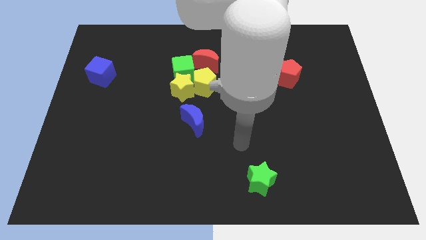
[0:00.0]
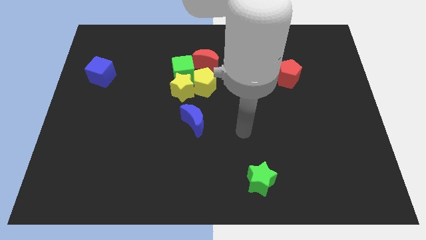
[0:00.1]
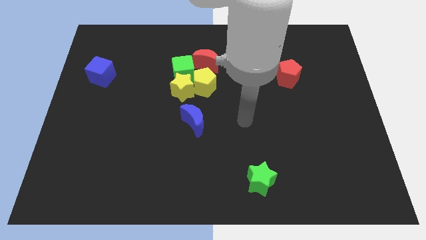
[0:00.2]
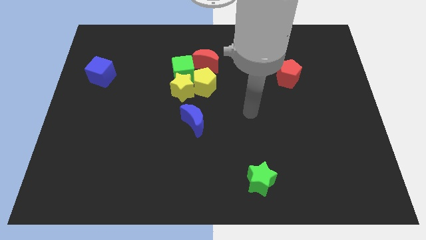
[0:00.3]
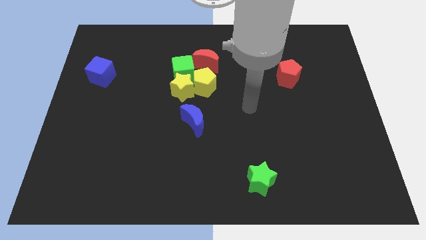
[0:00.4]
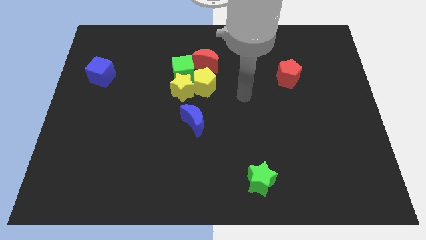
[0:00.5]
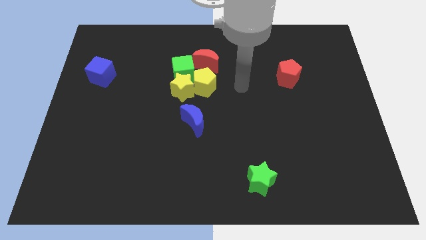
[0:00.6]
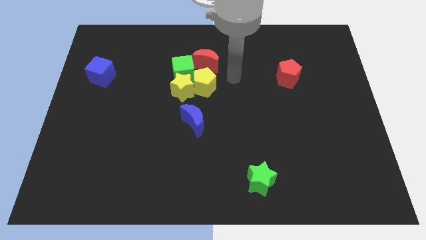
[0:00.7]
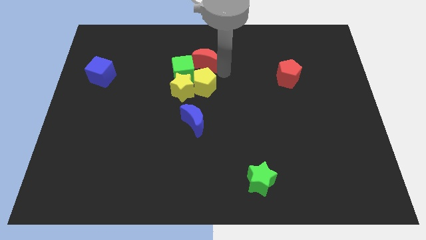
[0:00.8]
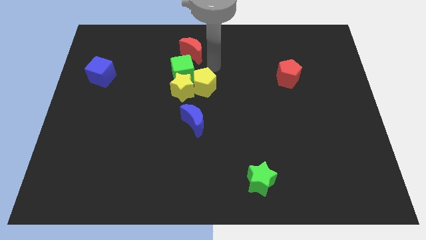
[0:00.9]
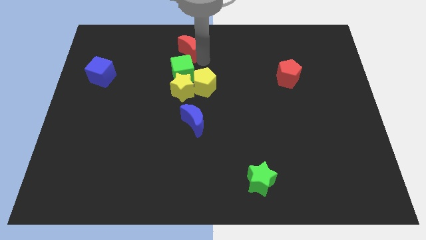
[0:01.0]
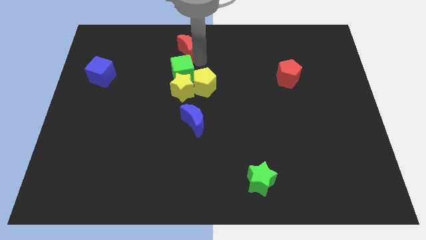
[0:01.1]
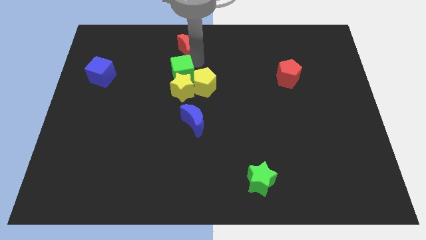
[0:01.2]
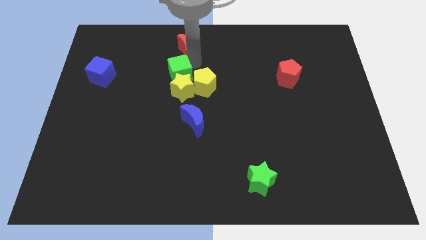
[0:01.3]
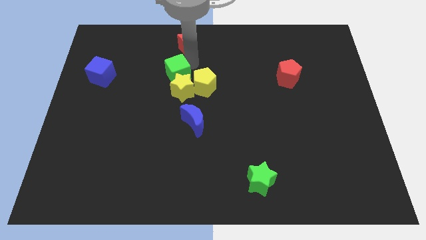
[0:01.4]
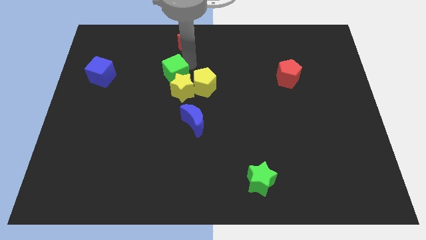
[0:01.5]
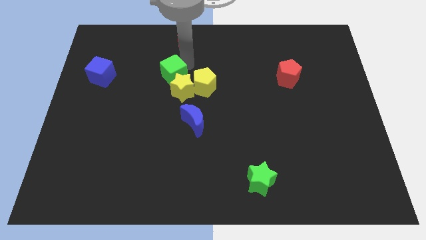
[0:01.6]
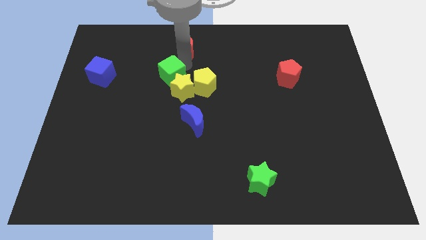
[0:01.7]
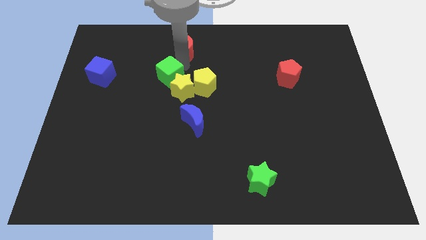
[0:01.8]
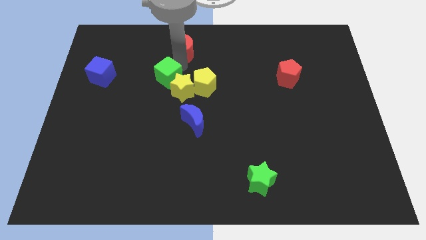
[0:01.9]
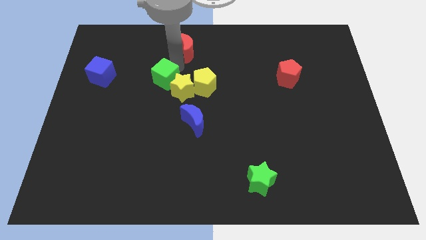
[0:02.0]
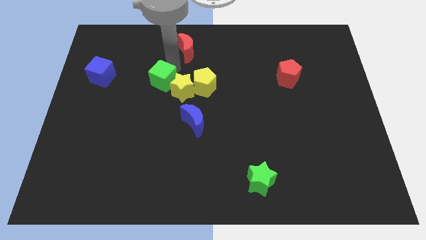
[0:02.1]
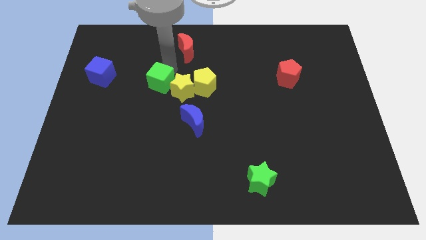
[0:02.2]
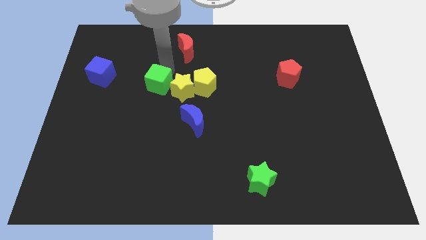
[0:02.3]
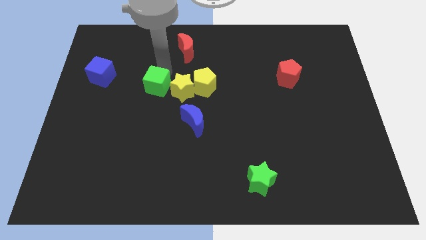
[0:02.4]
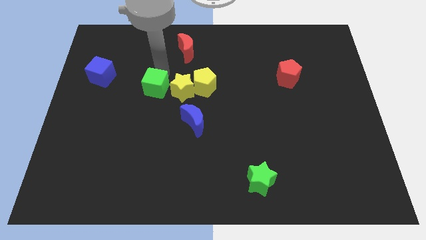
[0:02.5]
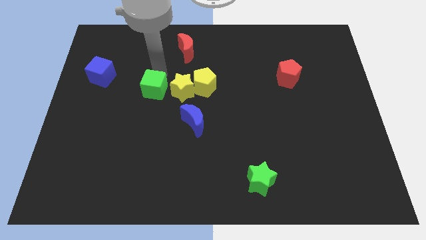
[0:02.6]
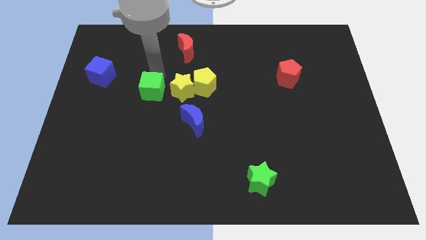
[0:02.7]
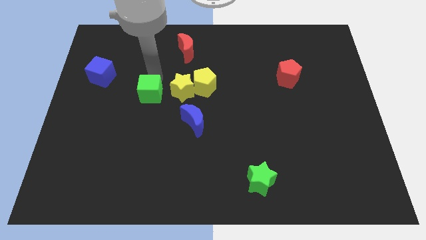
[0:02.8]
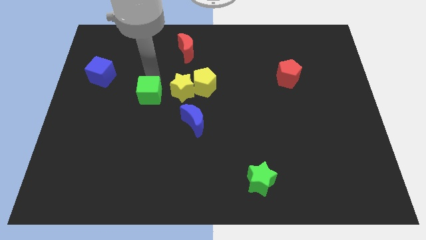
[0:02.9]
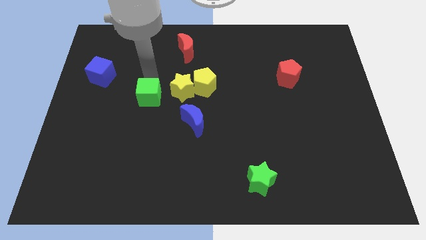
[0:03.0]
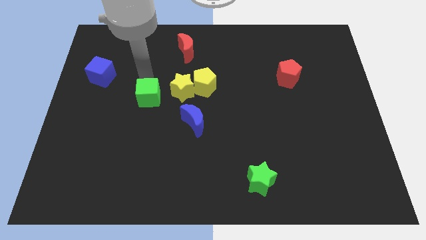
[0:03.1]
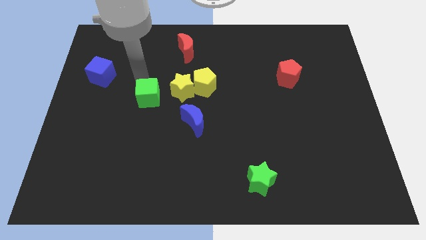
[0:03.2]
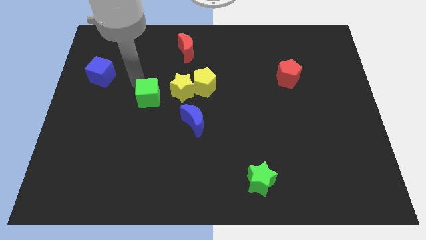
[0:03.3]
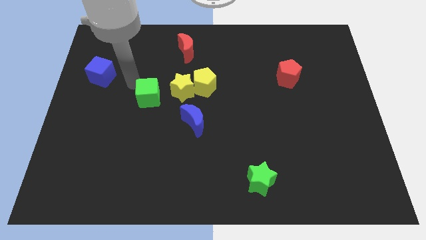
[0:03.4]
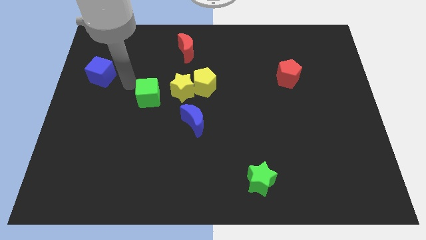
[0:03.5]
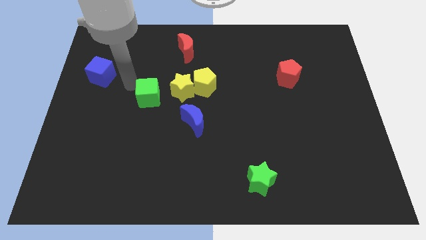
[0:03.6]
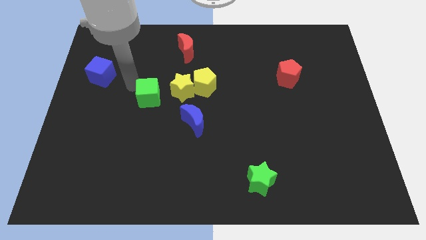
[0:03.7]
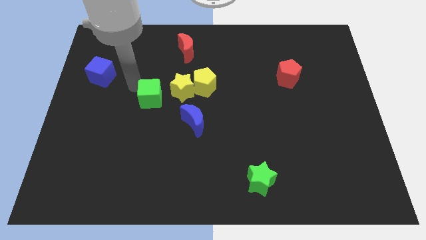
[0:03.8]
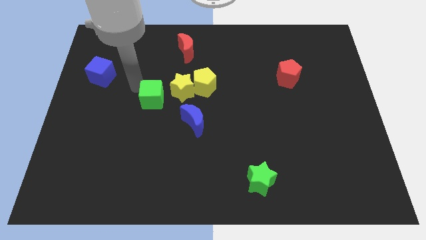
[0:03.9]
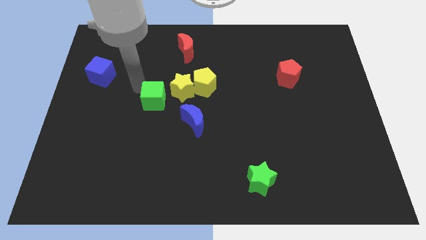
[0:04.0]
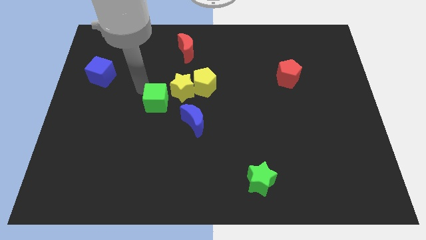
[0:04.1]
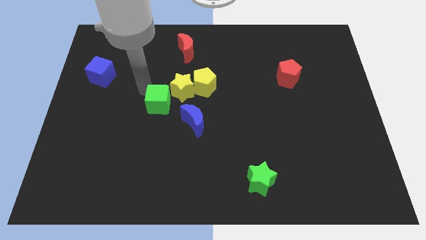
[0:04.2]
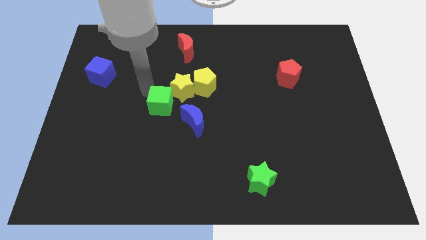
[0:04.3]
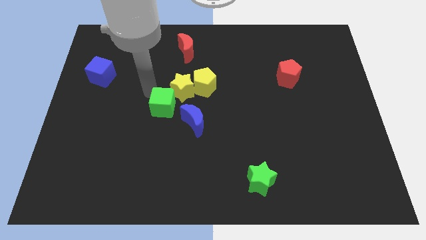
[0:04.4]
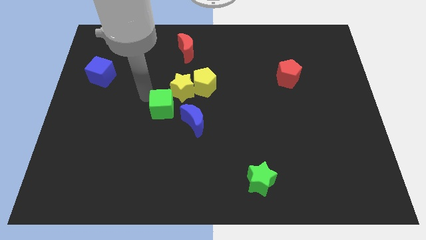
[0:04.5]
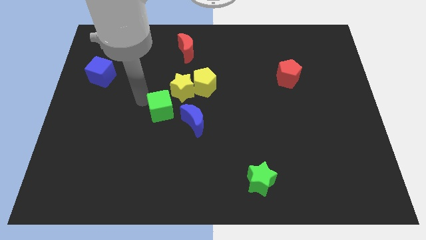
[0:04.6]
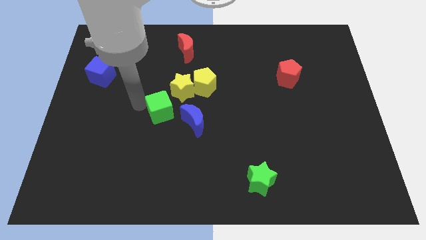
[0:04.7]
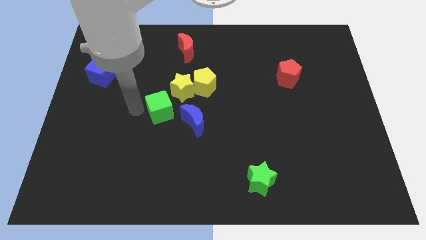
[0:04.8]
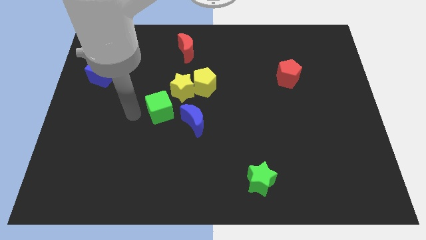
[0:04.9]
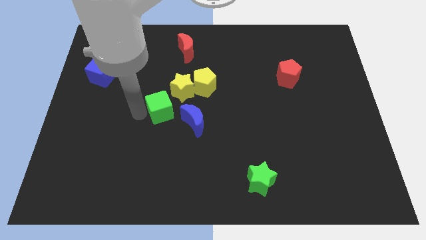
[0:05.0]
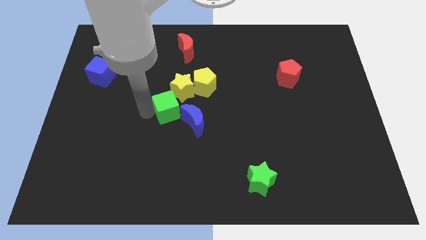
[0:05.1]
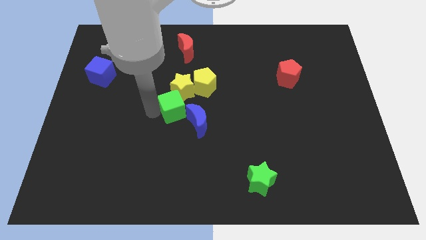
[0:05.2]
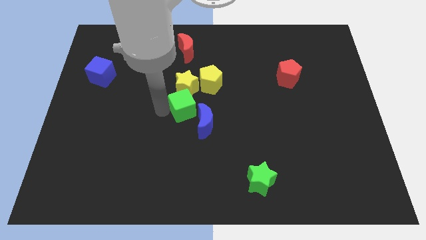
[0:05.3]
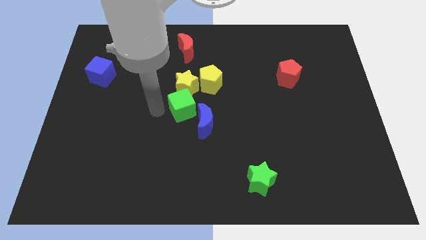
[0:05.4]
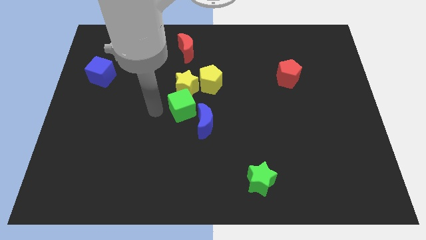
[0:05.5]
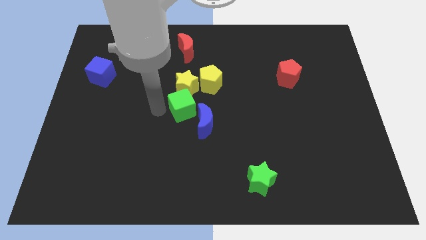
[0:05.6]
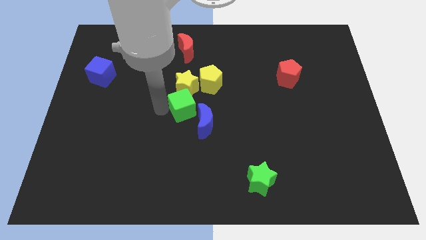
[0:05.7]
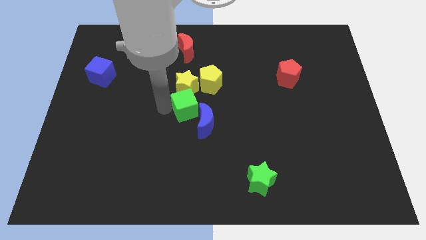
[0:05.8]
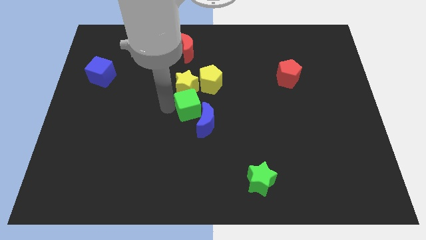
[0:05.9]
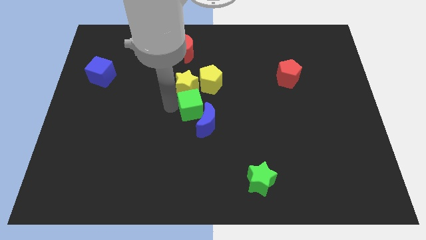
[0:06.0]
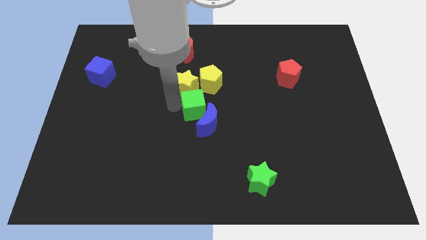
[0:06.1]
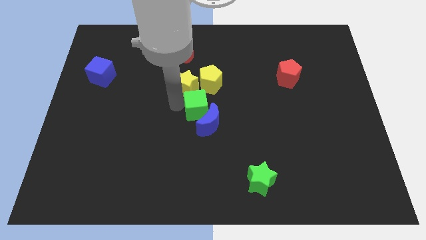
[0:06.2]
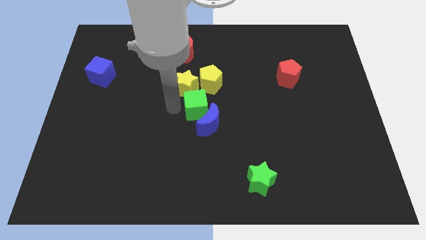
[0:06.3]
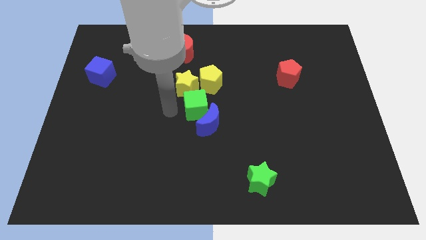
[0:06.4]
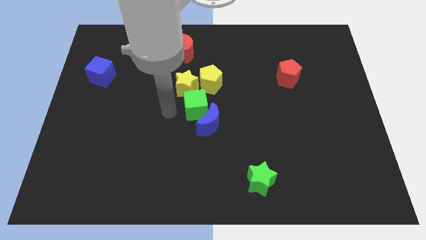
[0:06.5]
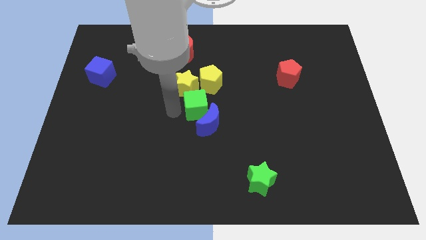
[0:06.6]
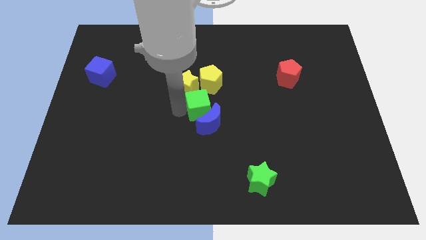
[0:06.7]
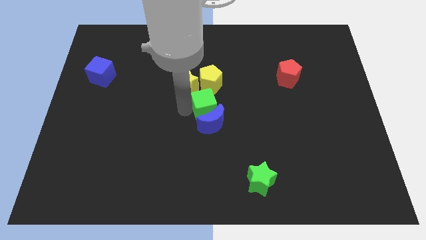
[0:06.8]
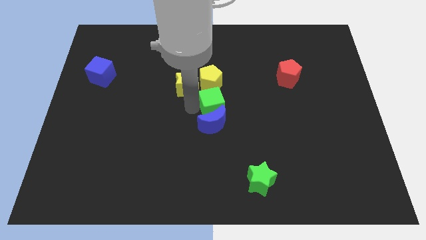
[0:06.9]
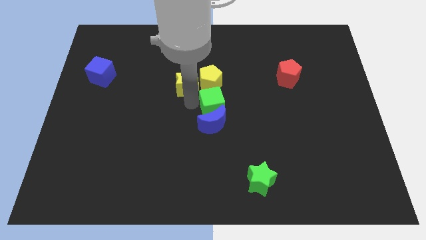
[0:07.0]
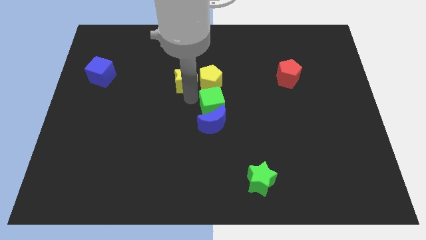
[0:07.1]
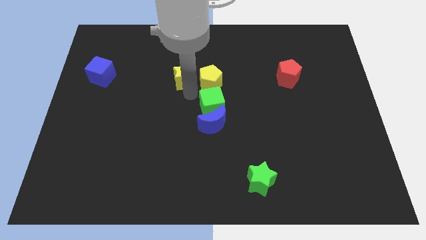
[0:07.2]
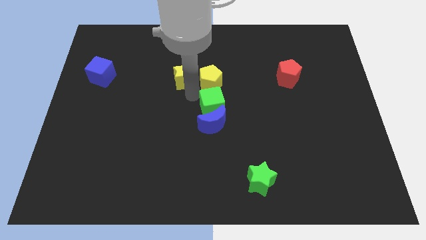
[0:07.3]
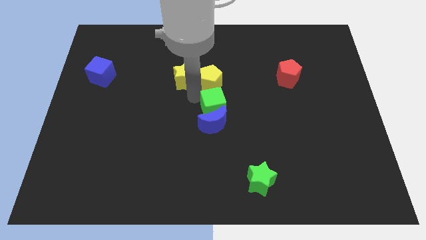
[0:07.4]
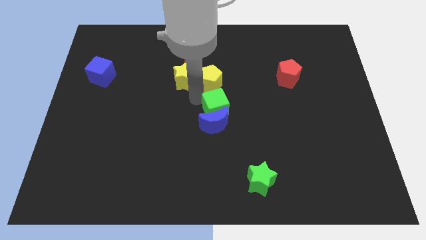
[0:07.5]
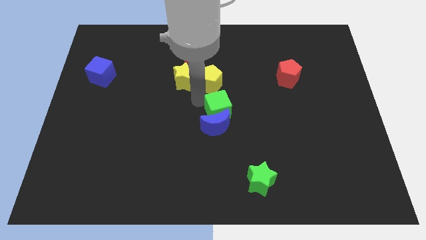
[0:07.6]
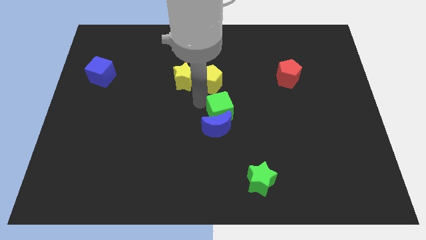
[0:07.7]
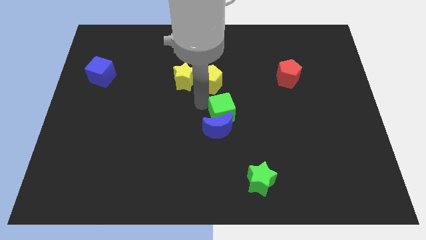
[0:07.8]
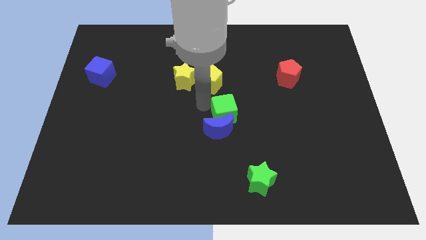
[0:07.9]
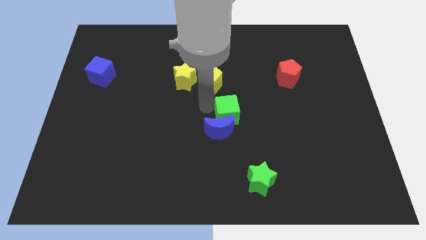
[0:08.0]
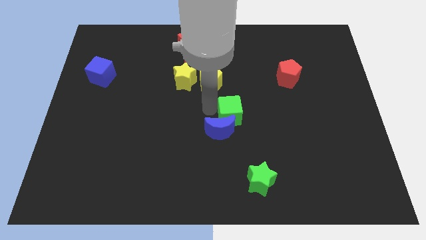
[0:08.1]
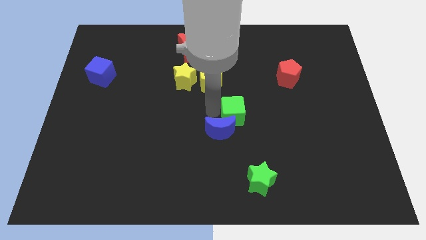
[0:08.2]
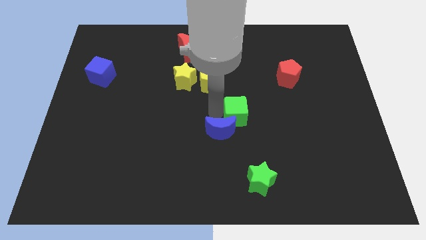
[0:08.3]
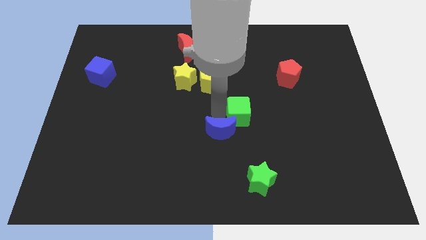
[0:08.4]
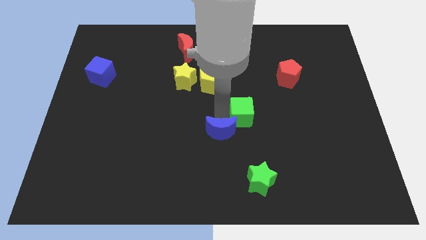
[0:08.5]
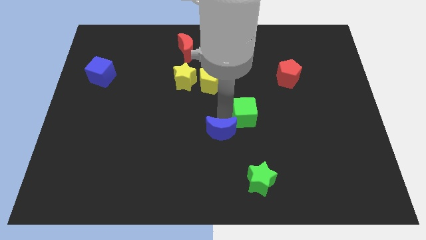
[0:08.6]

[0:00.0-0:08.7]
slide the green cube downwards and right
